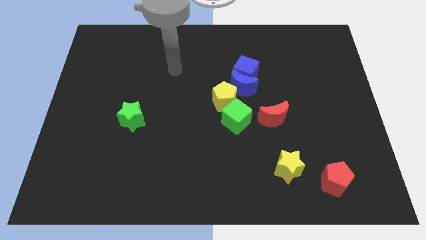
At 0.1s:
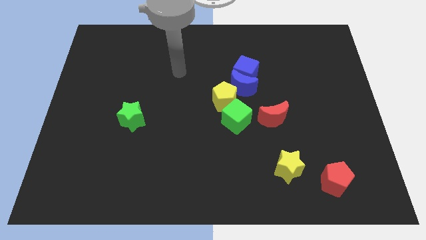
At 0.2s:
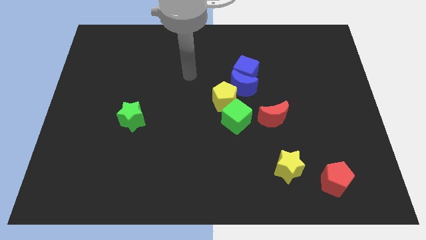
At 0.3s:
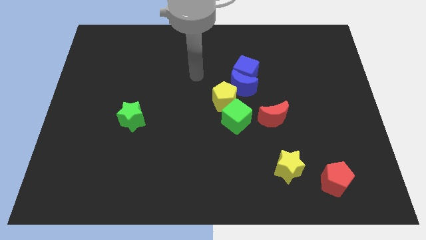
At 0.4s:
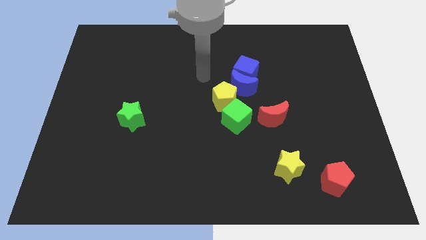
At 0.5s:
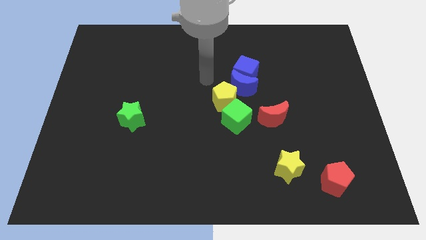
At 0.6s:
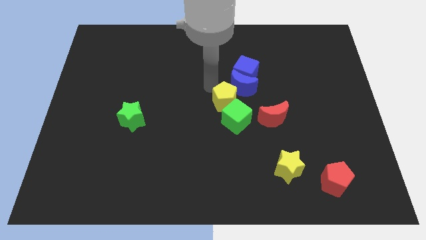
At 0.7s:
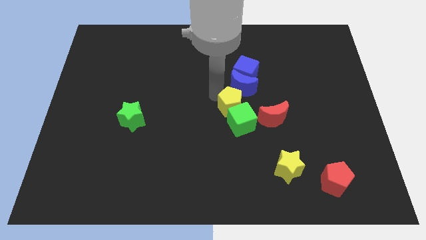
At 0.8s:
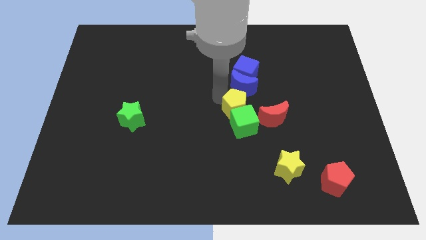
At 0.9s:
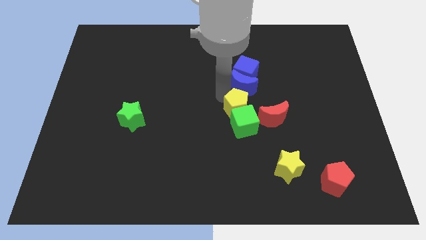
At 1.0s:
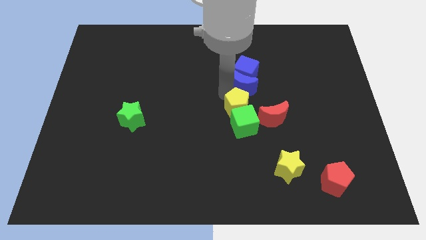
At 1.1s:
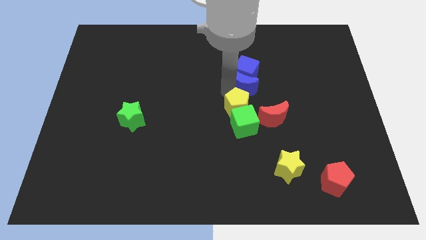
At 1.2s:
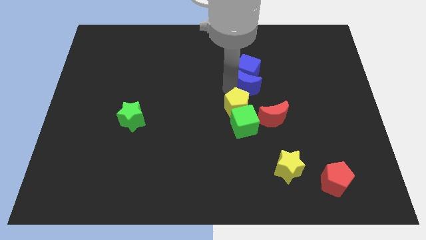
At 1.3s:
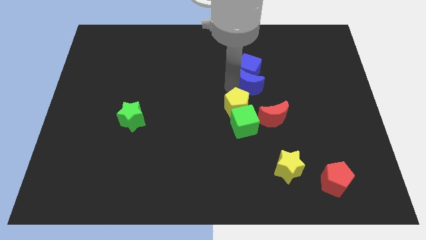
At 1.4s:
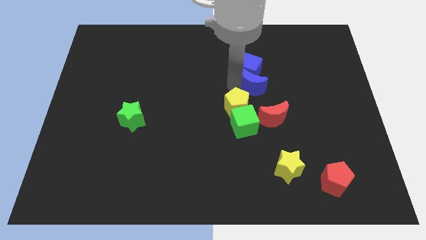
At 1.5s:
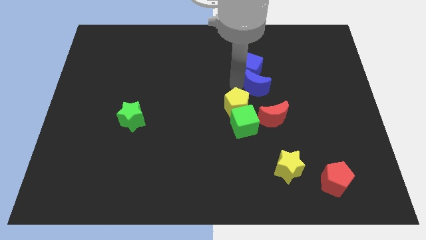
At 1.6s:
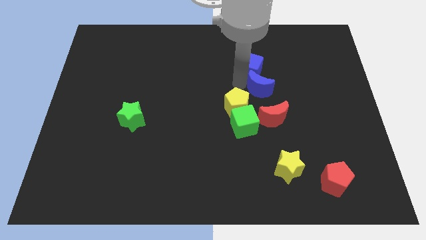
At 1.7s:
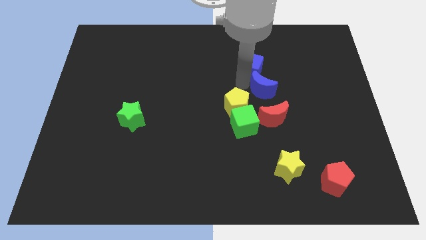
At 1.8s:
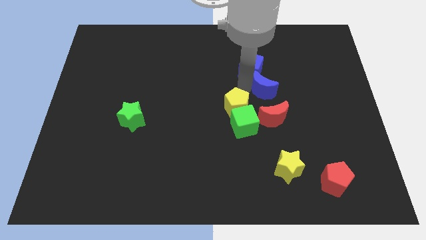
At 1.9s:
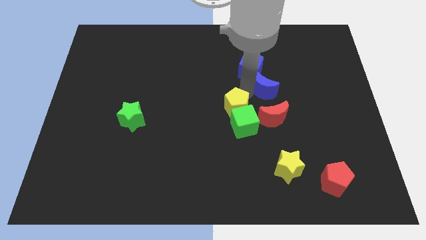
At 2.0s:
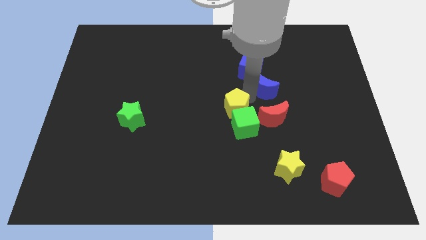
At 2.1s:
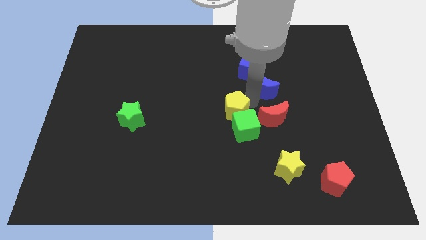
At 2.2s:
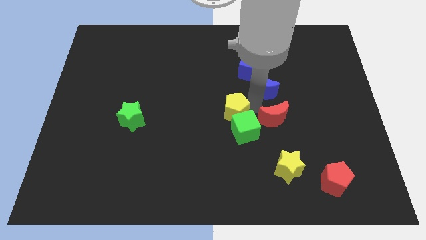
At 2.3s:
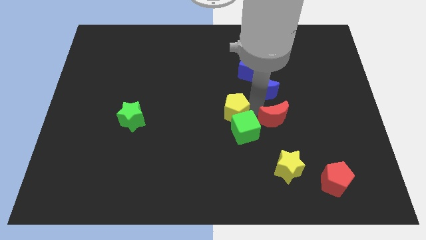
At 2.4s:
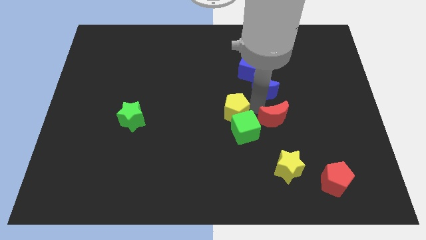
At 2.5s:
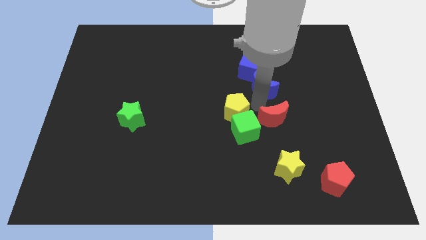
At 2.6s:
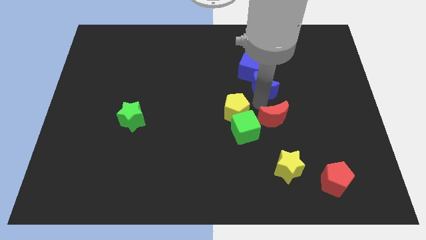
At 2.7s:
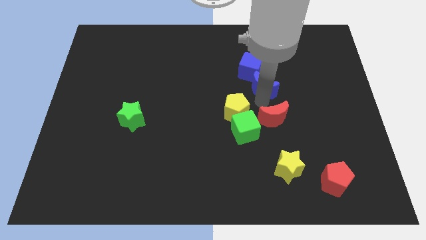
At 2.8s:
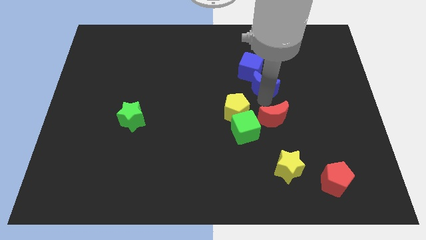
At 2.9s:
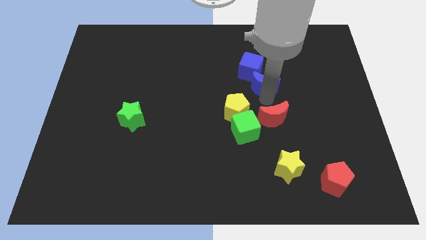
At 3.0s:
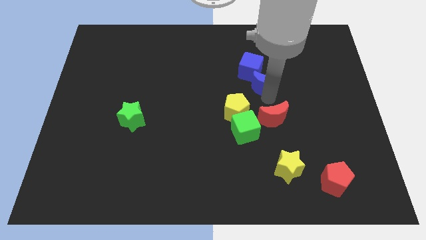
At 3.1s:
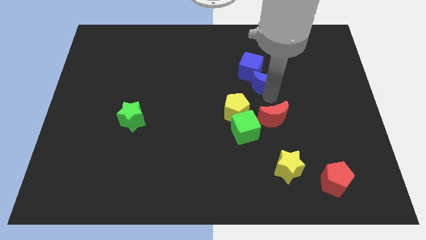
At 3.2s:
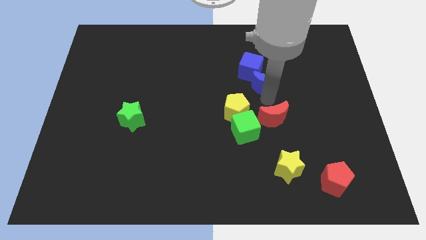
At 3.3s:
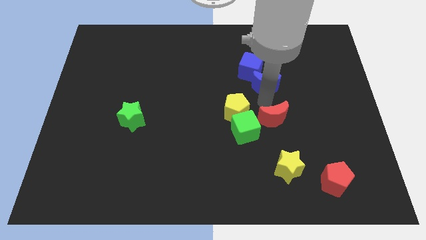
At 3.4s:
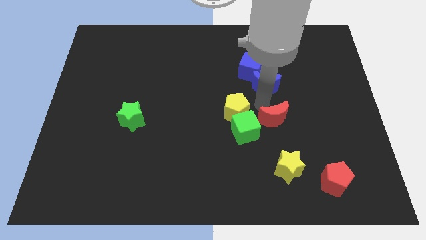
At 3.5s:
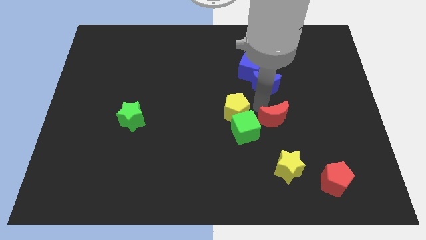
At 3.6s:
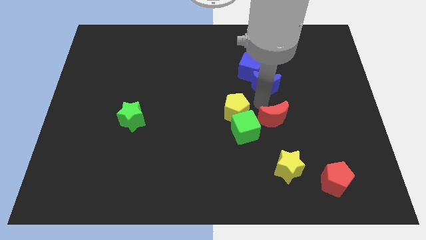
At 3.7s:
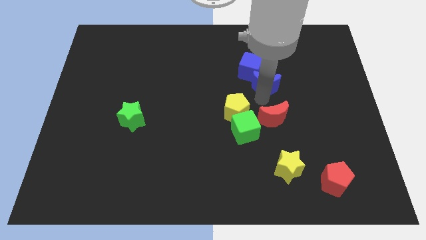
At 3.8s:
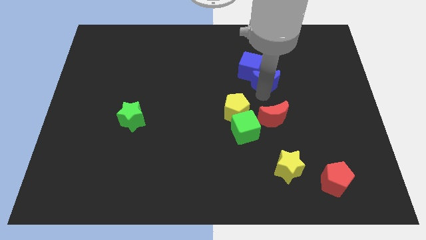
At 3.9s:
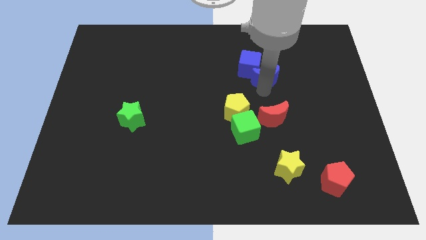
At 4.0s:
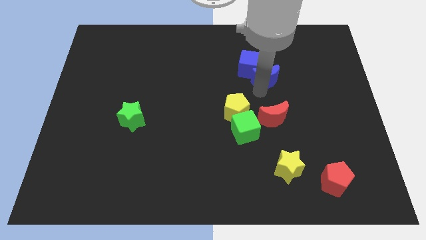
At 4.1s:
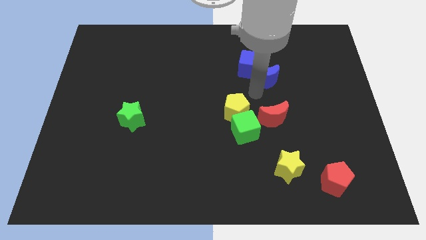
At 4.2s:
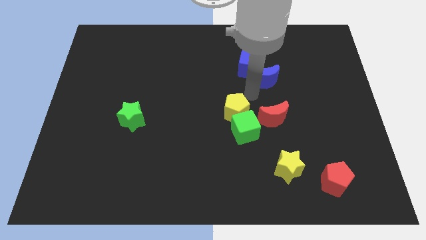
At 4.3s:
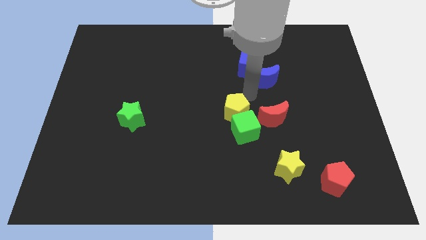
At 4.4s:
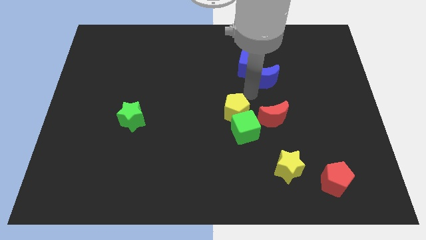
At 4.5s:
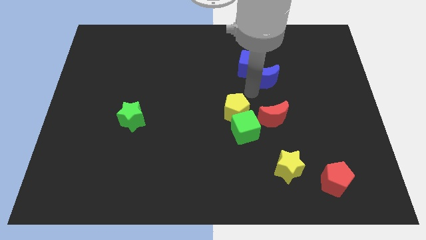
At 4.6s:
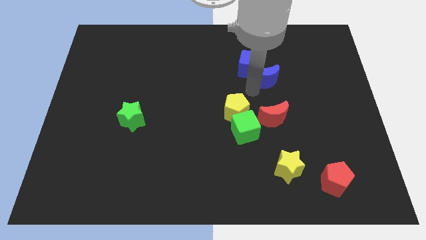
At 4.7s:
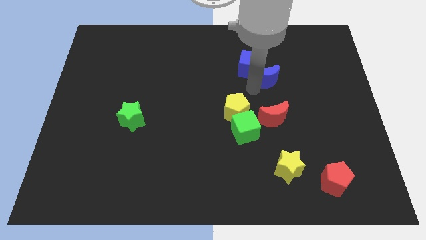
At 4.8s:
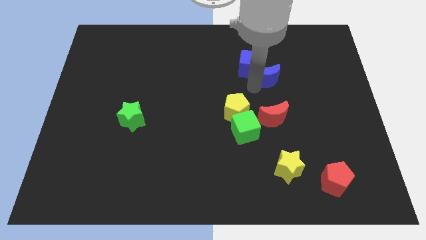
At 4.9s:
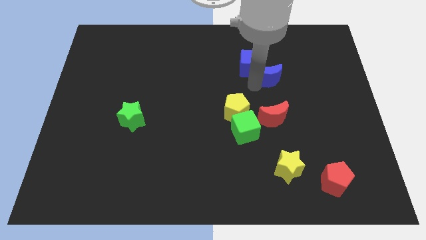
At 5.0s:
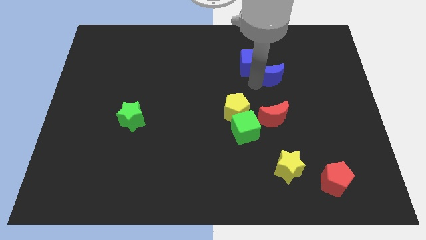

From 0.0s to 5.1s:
pull the blue moon apart from the group of blocks

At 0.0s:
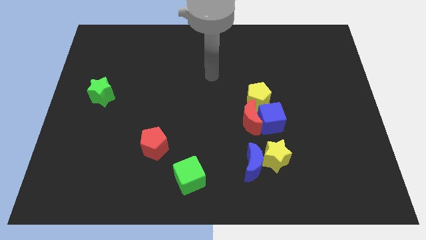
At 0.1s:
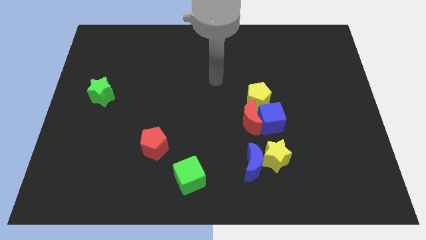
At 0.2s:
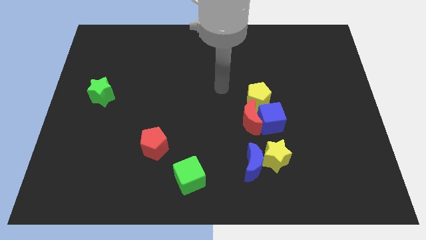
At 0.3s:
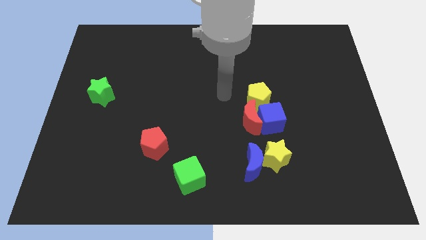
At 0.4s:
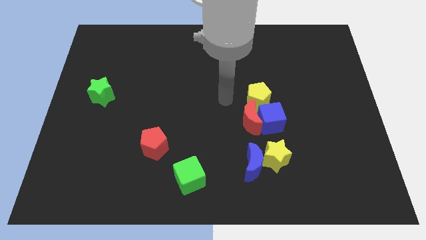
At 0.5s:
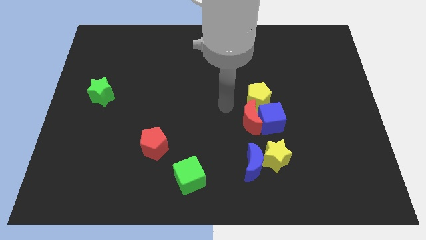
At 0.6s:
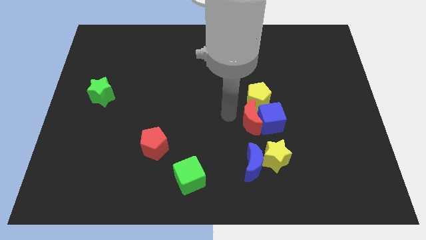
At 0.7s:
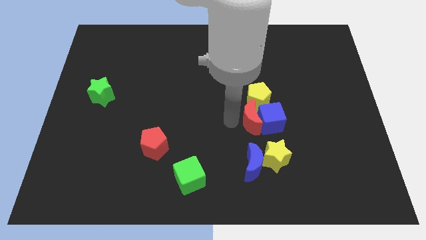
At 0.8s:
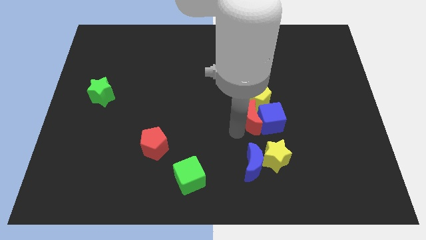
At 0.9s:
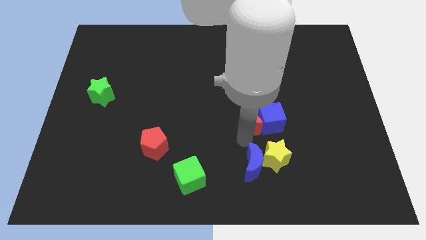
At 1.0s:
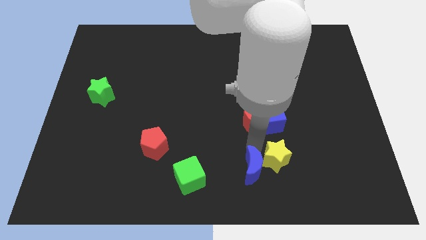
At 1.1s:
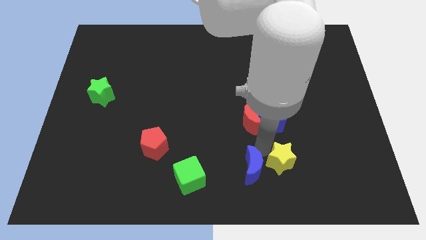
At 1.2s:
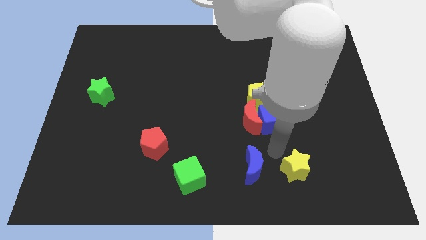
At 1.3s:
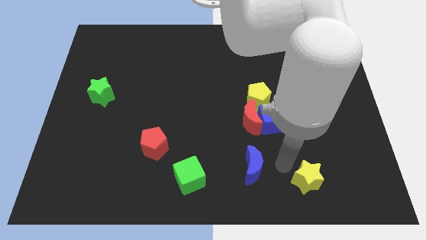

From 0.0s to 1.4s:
separate the blue moon from the yellow star

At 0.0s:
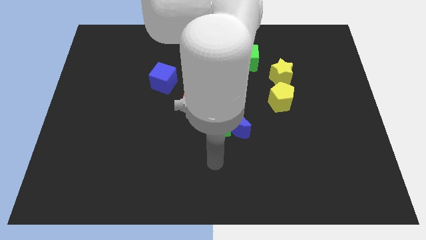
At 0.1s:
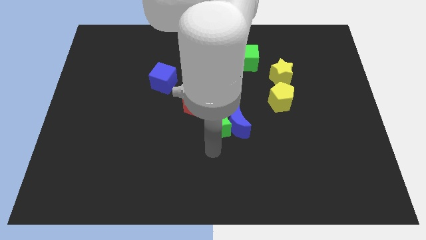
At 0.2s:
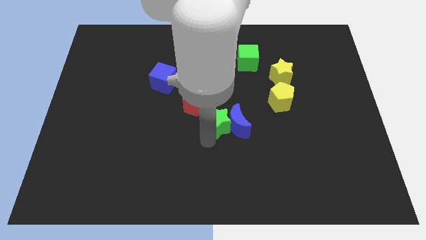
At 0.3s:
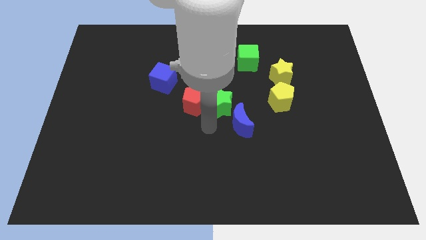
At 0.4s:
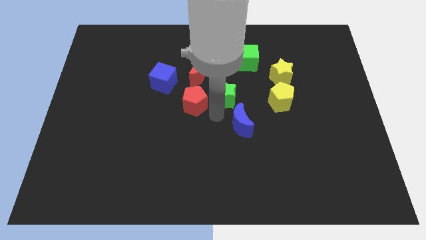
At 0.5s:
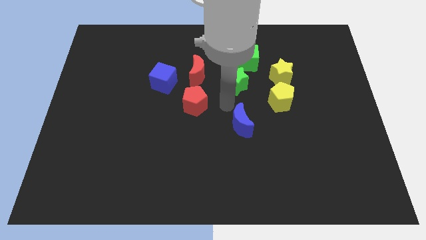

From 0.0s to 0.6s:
separate the blue moon from the green star

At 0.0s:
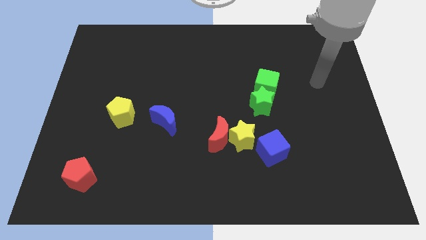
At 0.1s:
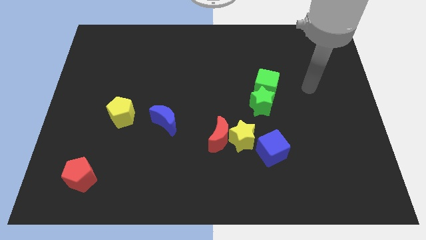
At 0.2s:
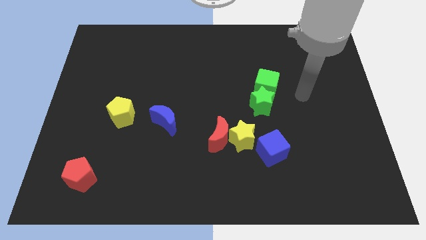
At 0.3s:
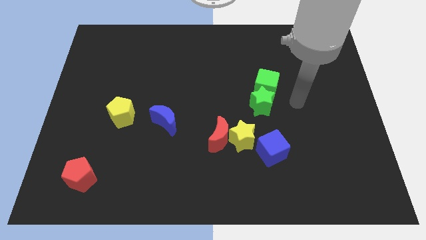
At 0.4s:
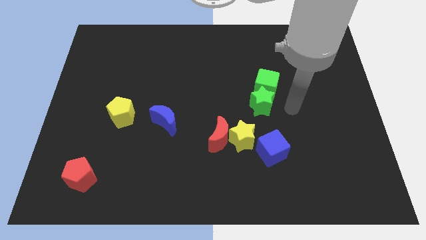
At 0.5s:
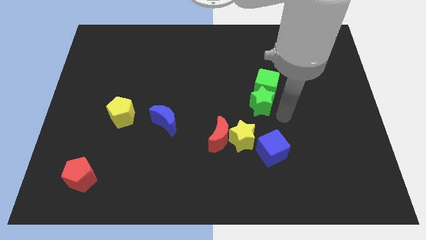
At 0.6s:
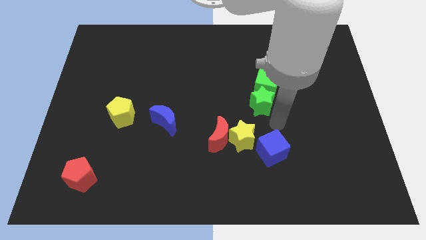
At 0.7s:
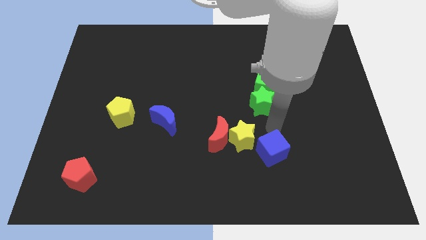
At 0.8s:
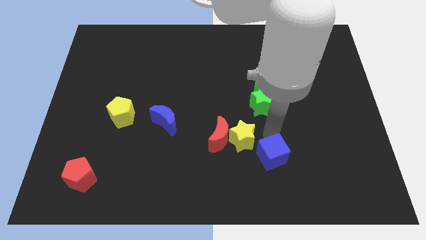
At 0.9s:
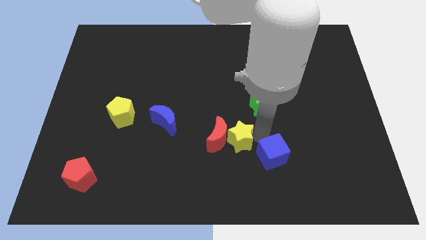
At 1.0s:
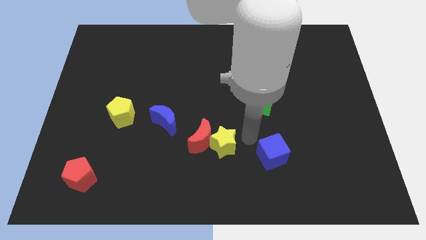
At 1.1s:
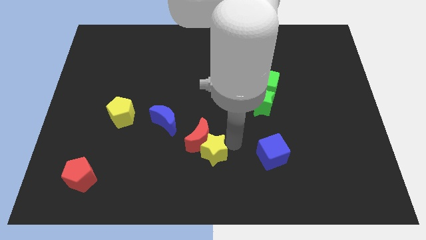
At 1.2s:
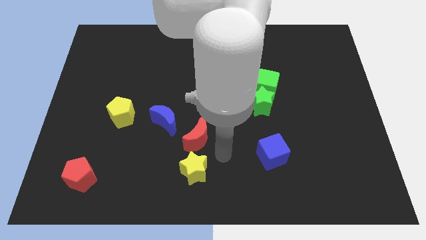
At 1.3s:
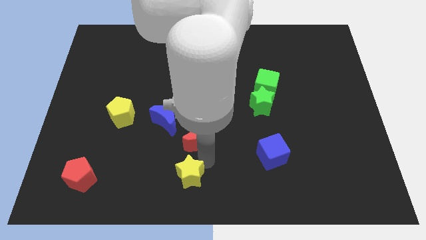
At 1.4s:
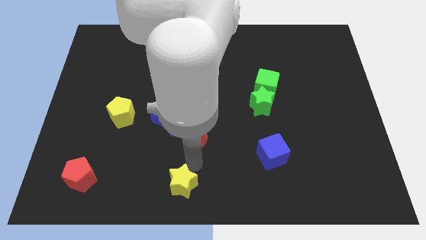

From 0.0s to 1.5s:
move the red moon away from the yellow star

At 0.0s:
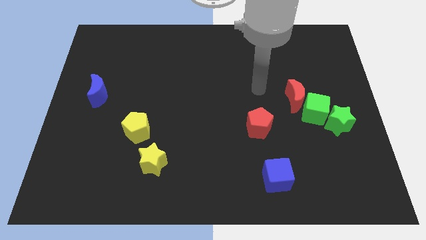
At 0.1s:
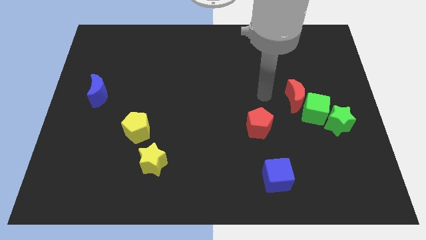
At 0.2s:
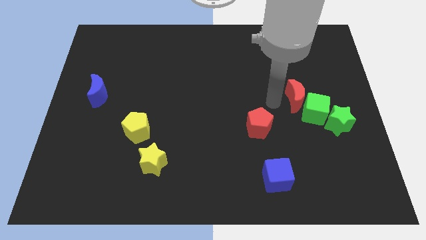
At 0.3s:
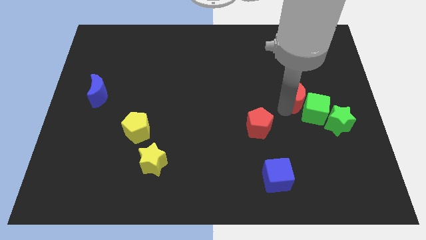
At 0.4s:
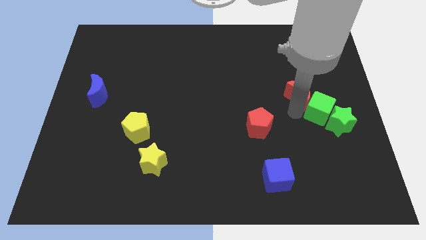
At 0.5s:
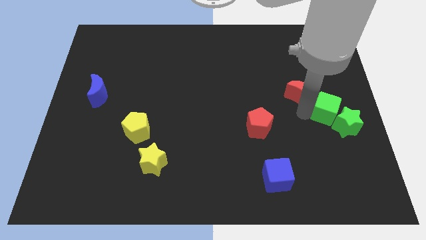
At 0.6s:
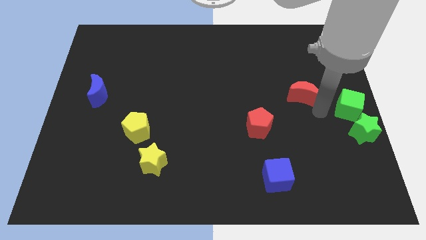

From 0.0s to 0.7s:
move the red moon away from the green cube
